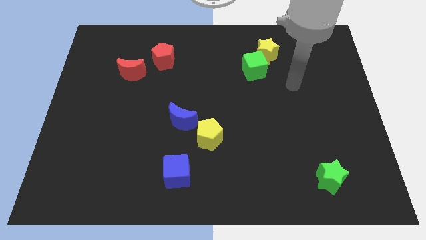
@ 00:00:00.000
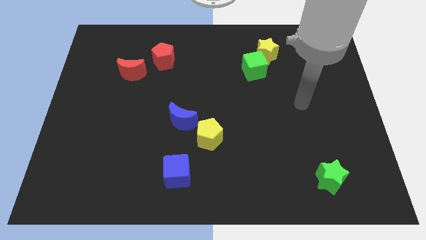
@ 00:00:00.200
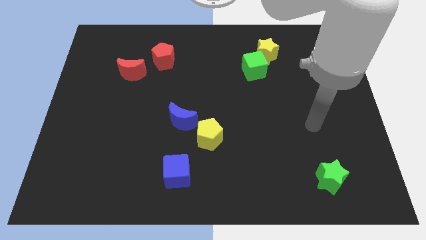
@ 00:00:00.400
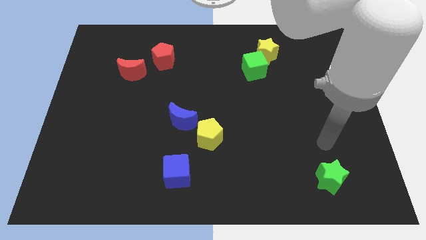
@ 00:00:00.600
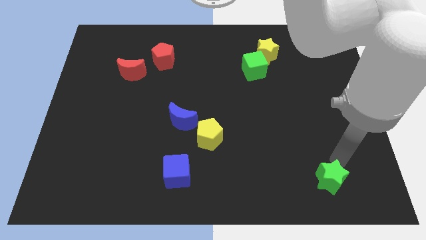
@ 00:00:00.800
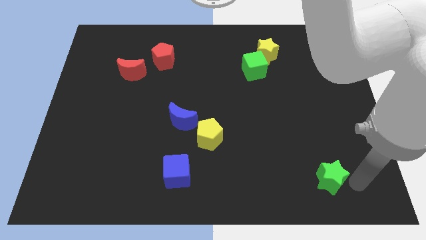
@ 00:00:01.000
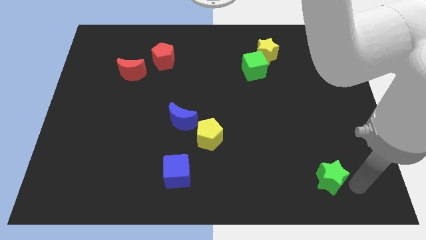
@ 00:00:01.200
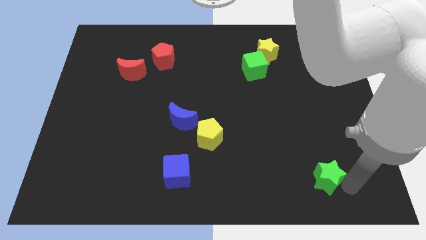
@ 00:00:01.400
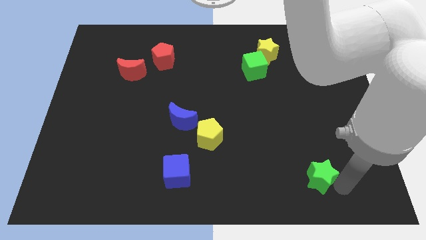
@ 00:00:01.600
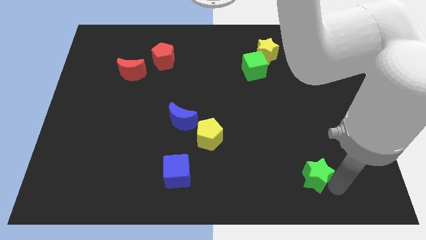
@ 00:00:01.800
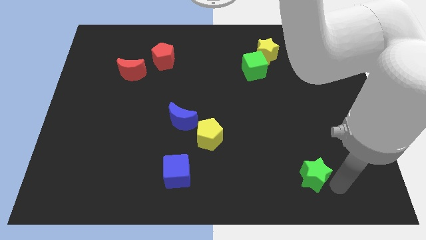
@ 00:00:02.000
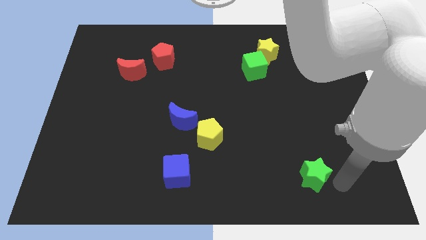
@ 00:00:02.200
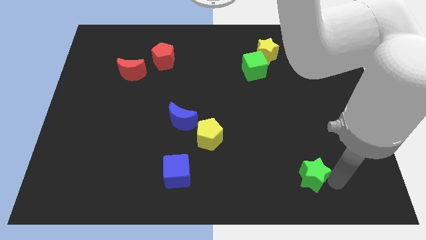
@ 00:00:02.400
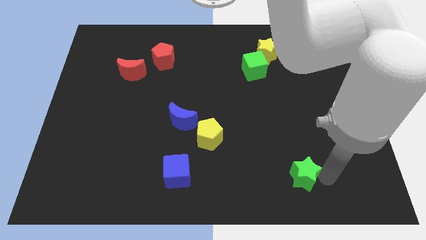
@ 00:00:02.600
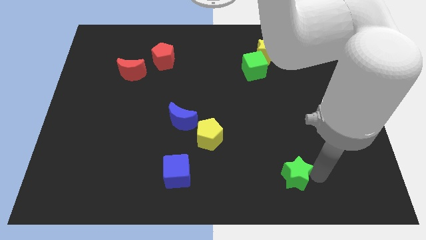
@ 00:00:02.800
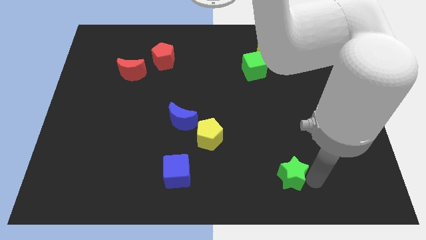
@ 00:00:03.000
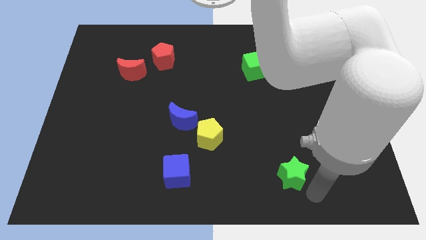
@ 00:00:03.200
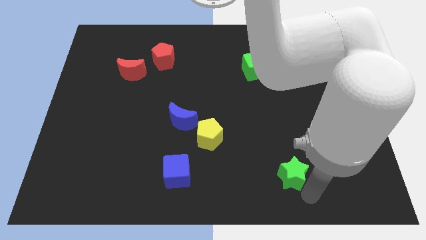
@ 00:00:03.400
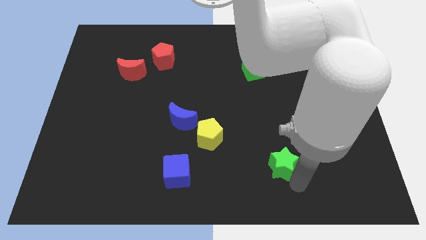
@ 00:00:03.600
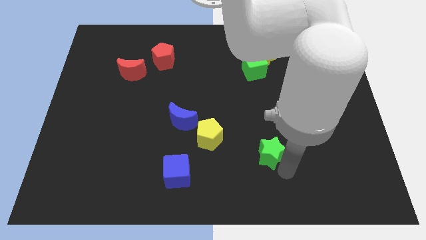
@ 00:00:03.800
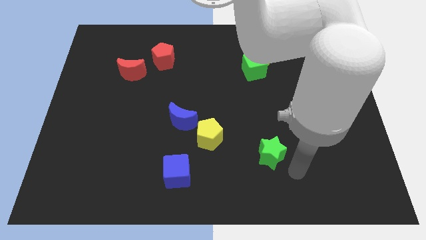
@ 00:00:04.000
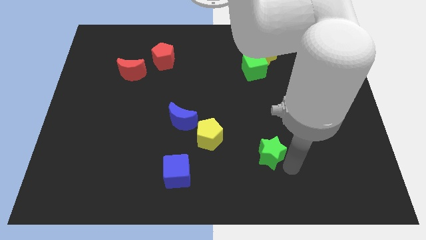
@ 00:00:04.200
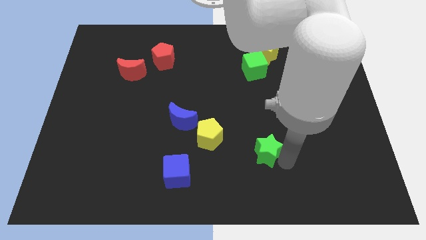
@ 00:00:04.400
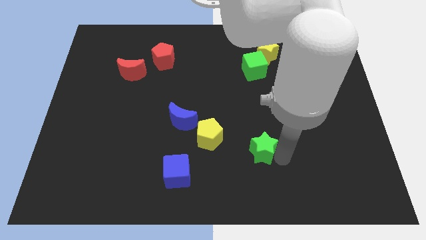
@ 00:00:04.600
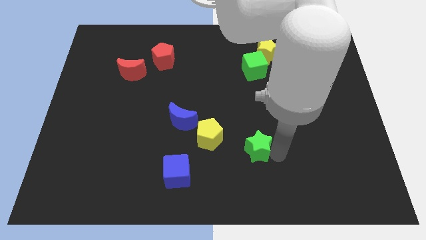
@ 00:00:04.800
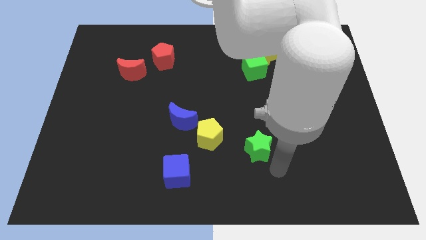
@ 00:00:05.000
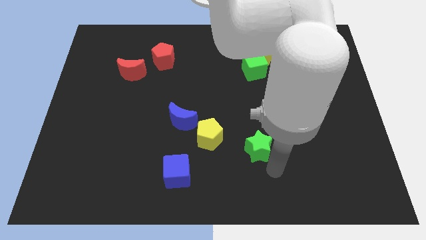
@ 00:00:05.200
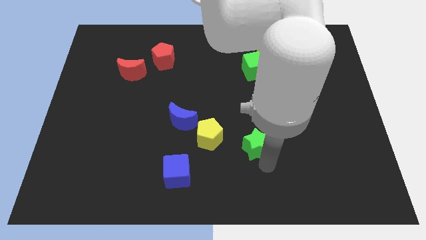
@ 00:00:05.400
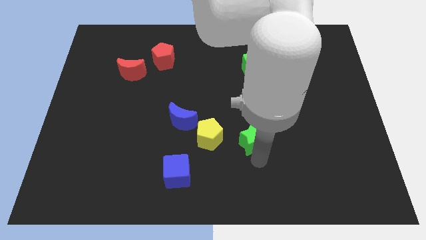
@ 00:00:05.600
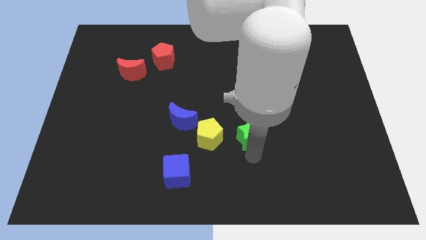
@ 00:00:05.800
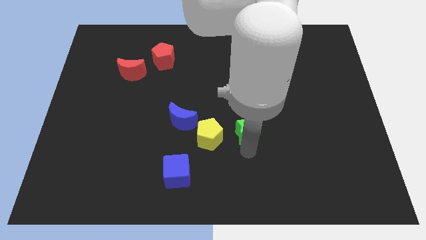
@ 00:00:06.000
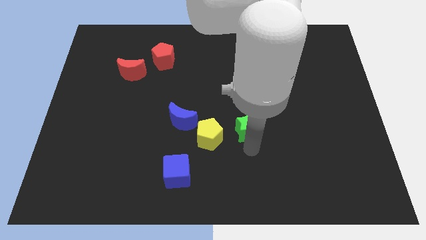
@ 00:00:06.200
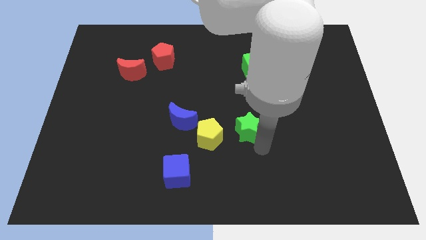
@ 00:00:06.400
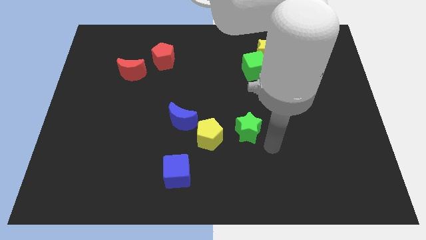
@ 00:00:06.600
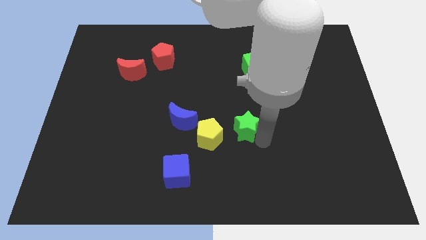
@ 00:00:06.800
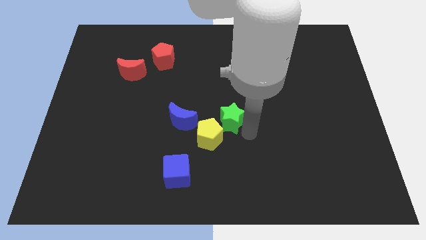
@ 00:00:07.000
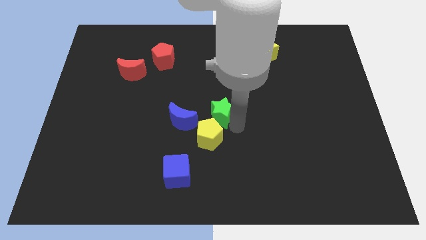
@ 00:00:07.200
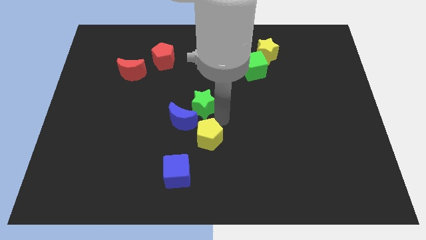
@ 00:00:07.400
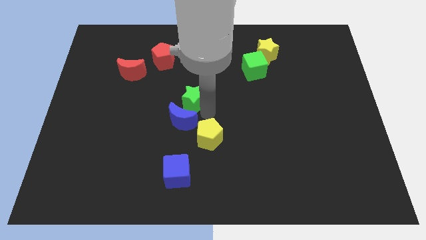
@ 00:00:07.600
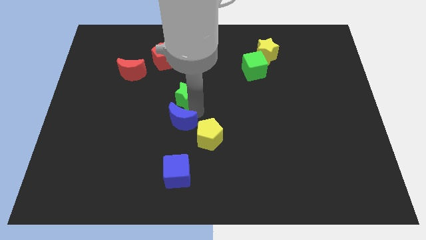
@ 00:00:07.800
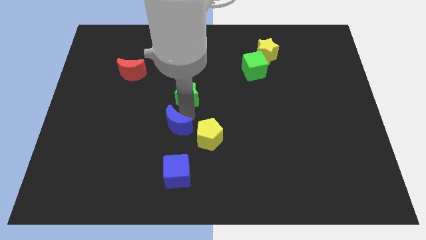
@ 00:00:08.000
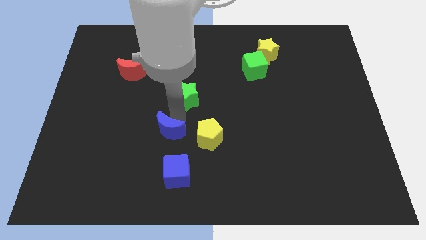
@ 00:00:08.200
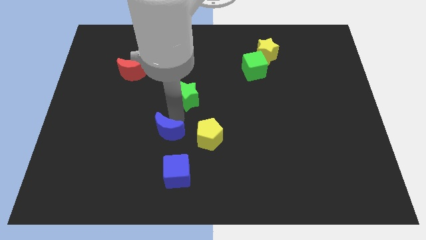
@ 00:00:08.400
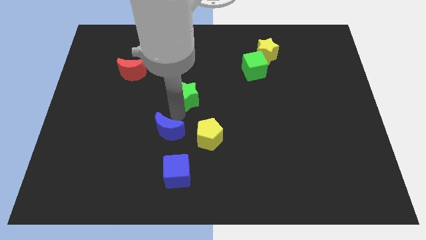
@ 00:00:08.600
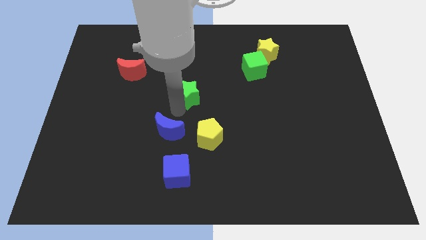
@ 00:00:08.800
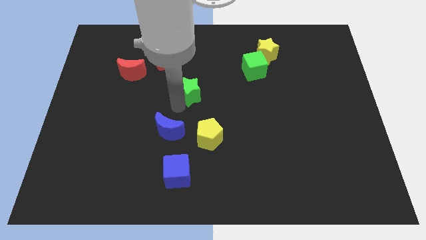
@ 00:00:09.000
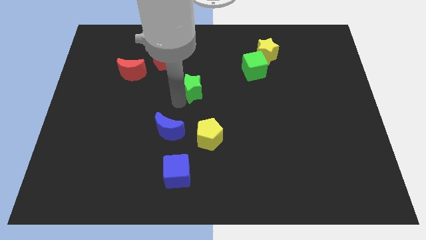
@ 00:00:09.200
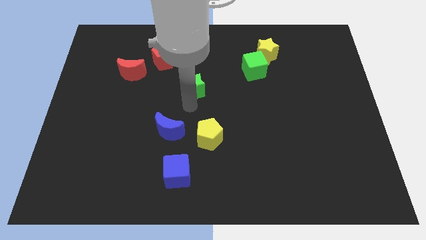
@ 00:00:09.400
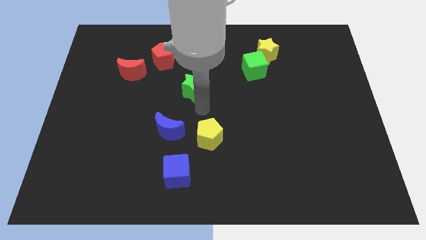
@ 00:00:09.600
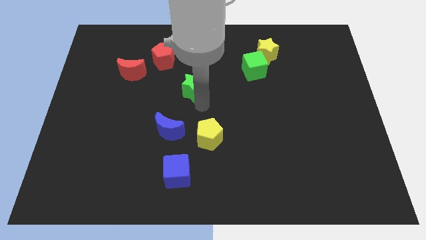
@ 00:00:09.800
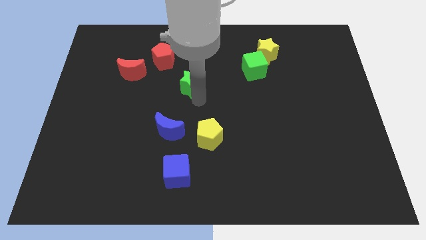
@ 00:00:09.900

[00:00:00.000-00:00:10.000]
slide the green star diagonally down and to the right of the red pentagon

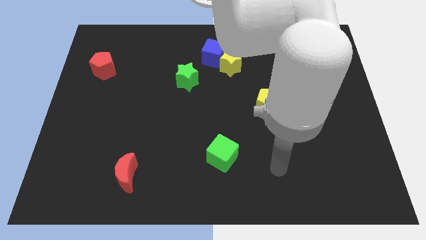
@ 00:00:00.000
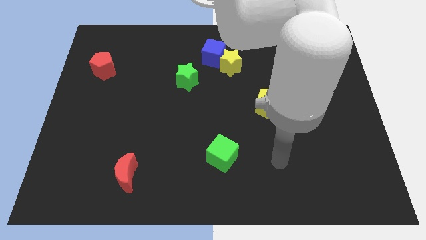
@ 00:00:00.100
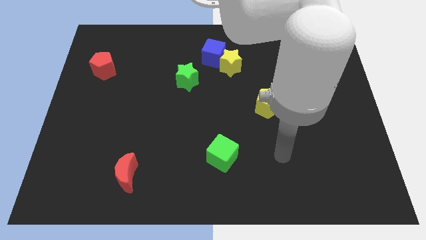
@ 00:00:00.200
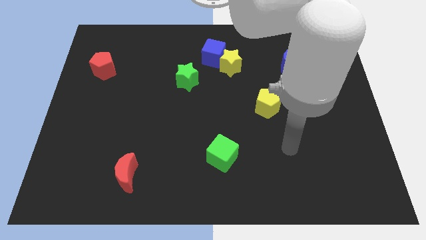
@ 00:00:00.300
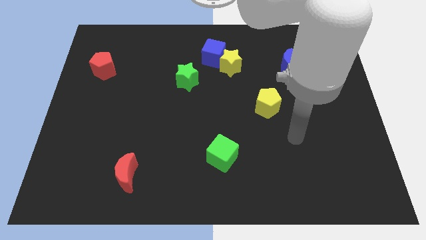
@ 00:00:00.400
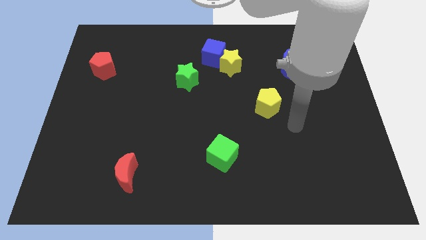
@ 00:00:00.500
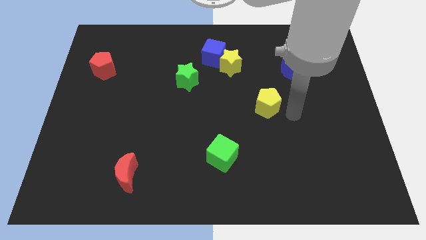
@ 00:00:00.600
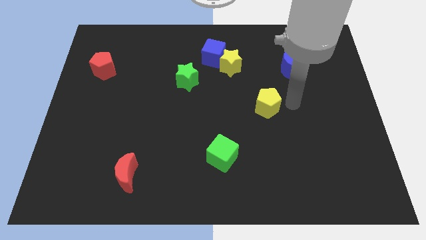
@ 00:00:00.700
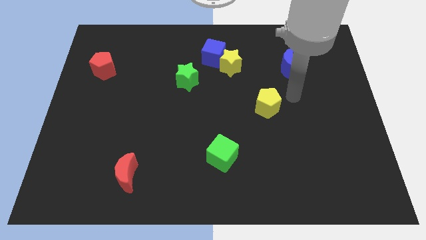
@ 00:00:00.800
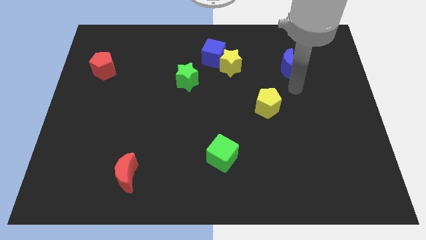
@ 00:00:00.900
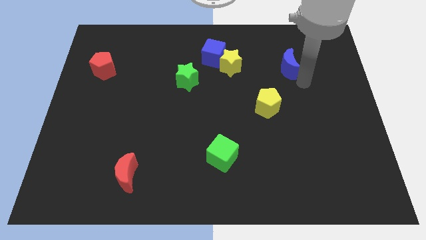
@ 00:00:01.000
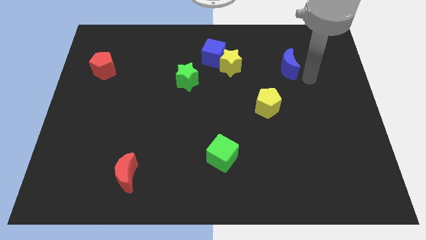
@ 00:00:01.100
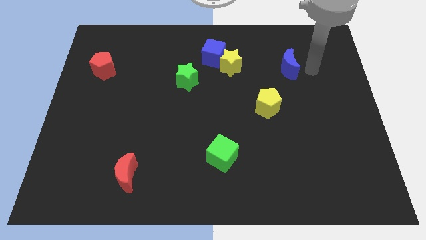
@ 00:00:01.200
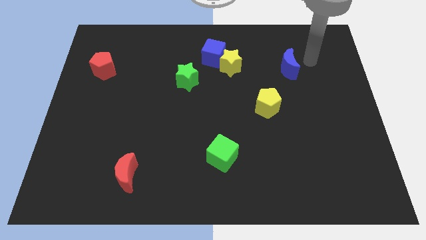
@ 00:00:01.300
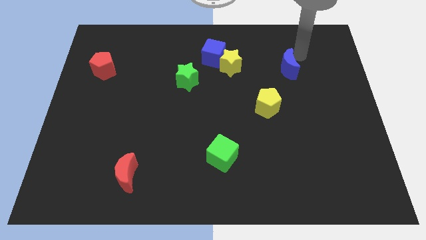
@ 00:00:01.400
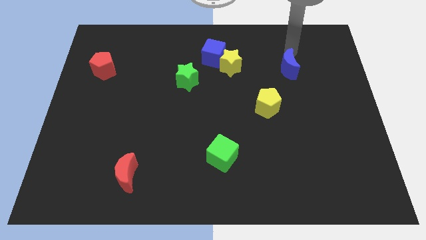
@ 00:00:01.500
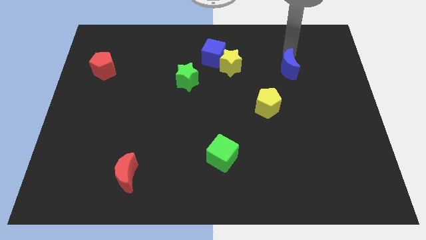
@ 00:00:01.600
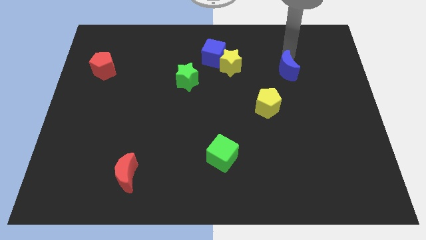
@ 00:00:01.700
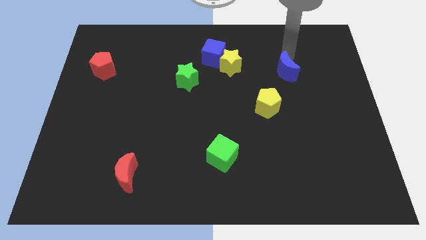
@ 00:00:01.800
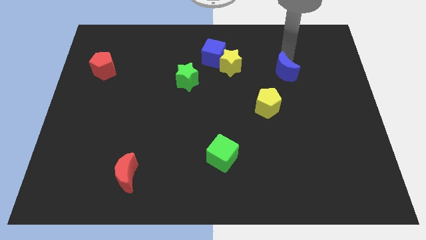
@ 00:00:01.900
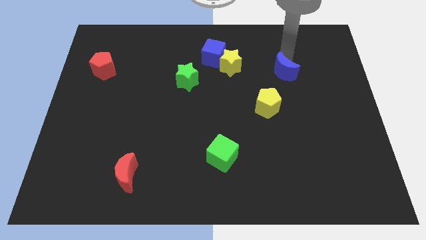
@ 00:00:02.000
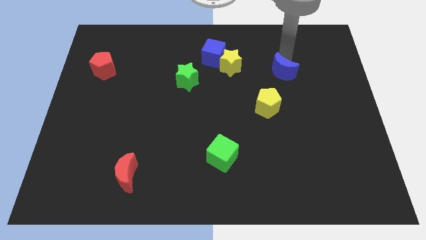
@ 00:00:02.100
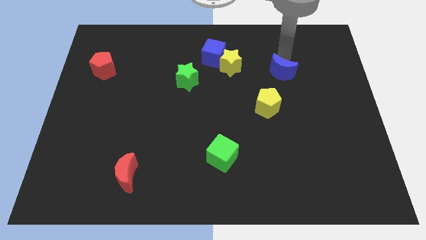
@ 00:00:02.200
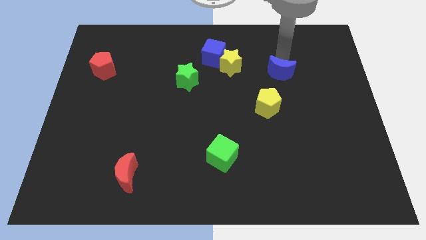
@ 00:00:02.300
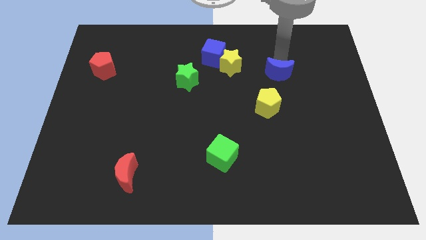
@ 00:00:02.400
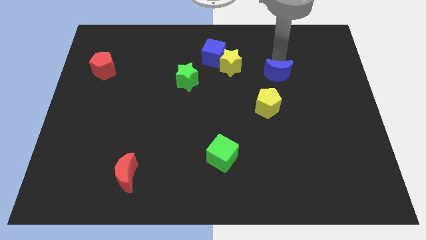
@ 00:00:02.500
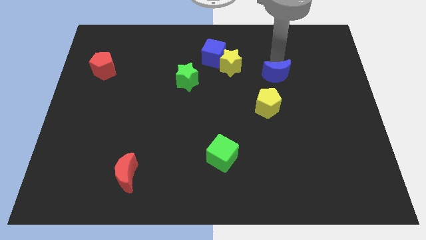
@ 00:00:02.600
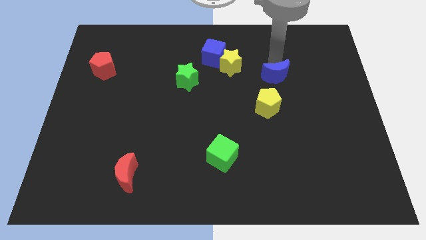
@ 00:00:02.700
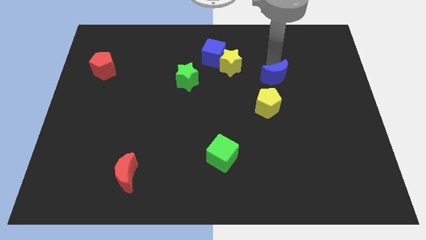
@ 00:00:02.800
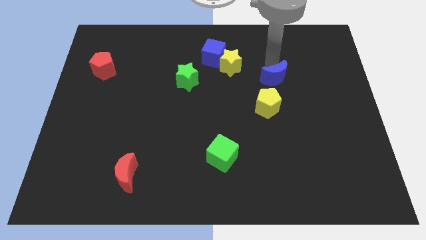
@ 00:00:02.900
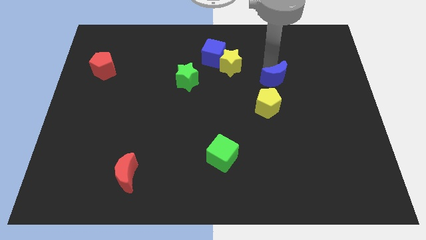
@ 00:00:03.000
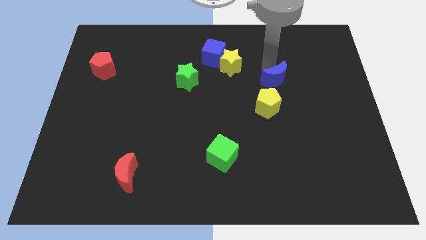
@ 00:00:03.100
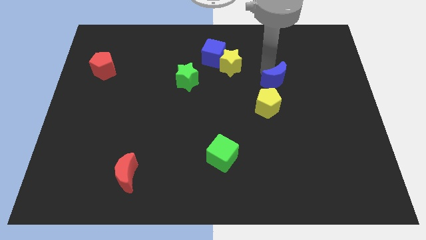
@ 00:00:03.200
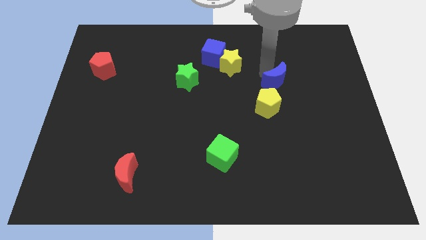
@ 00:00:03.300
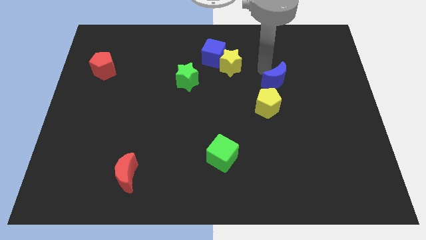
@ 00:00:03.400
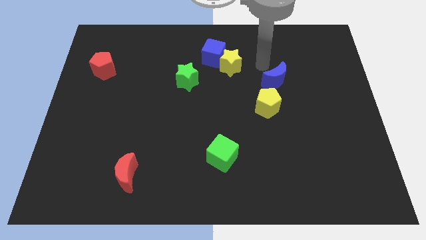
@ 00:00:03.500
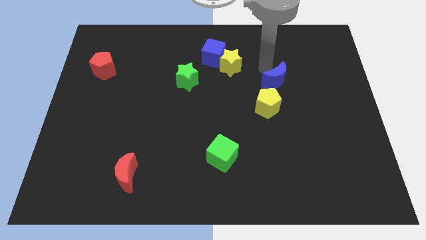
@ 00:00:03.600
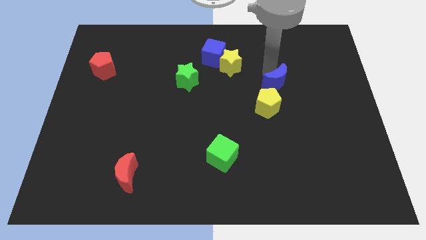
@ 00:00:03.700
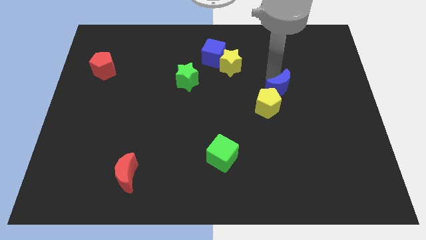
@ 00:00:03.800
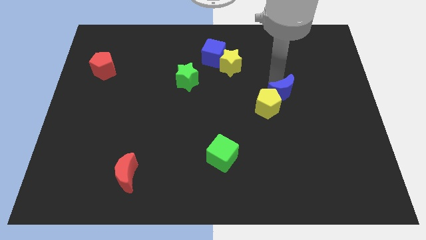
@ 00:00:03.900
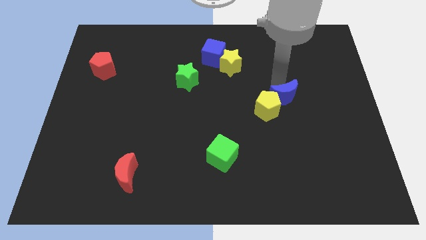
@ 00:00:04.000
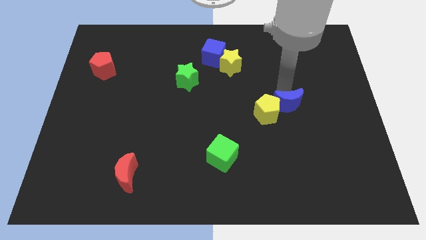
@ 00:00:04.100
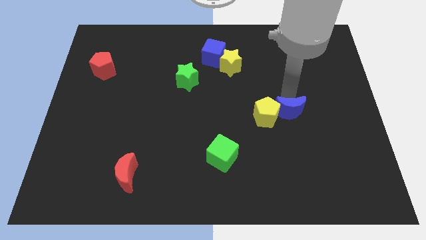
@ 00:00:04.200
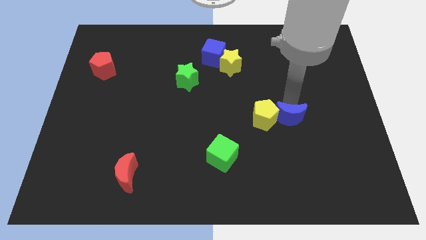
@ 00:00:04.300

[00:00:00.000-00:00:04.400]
push the blue moon diagonally down and to the right of the yellow pentagon
